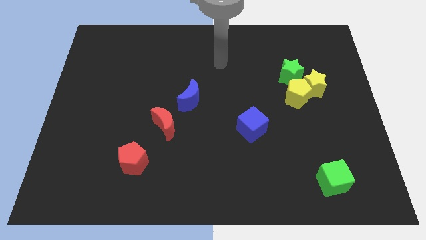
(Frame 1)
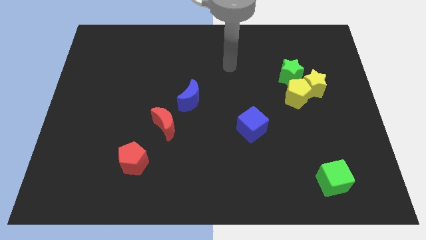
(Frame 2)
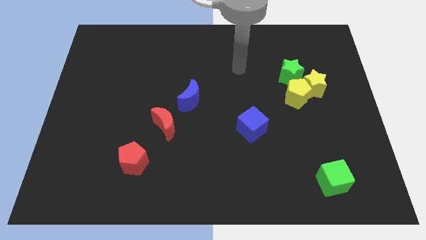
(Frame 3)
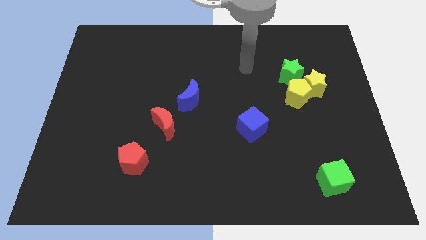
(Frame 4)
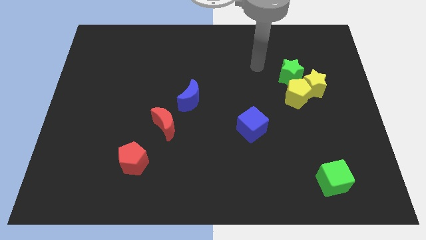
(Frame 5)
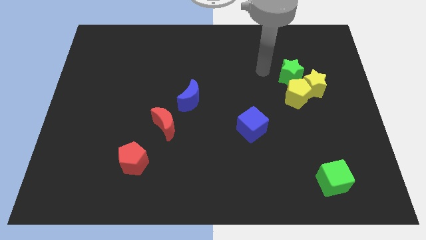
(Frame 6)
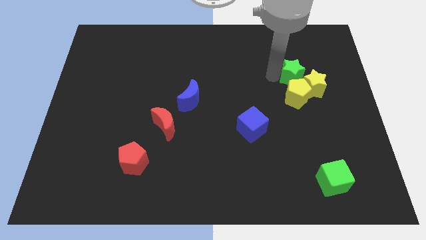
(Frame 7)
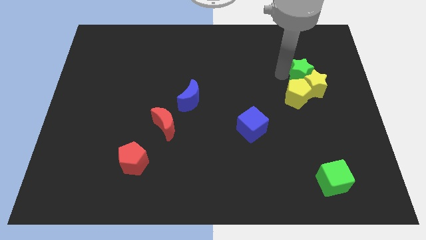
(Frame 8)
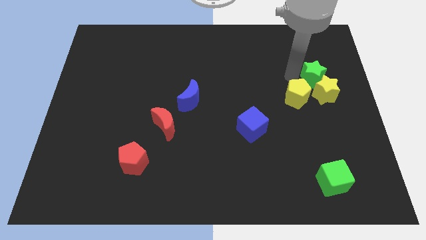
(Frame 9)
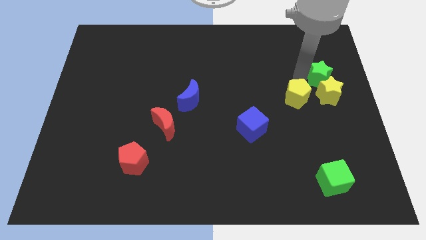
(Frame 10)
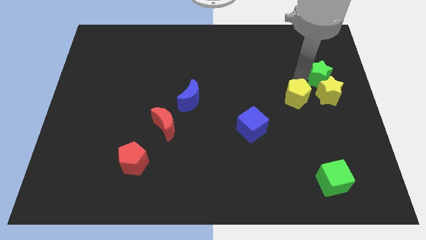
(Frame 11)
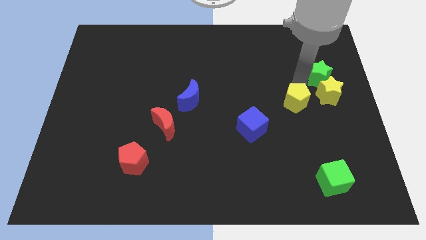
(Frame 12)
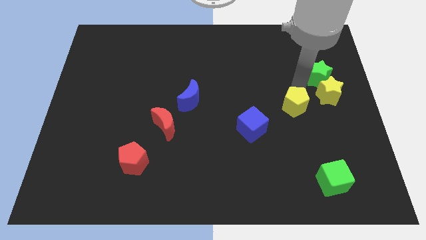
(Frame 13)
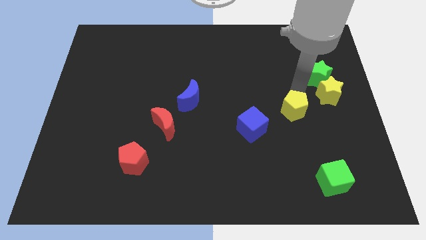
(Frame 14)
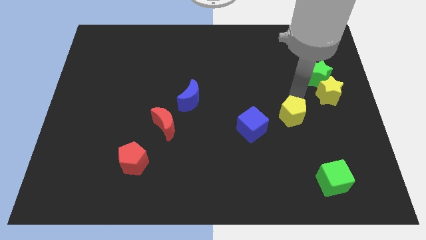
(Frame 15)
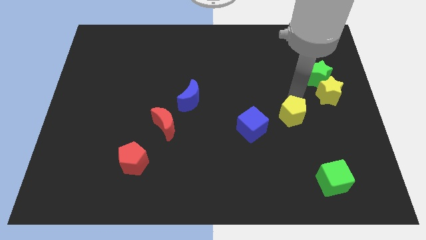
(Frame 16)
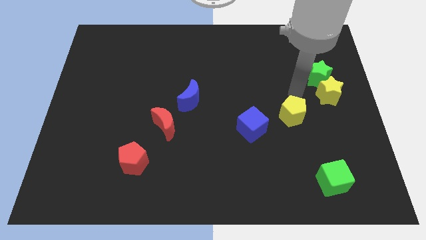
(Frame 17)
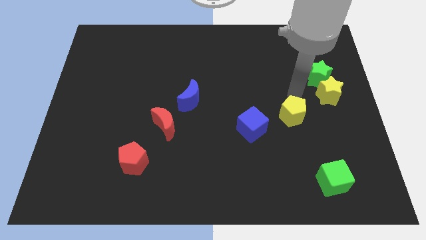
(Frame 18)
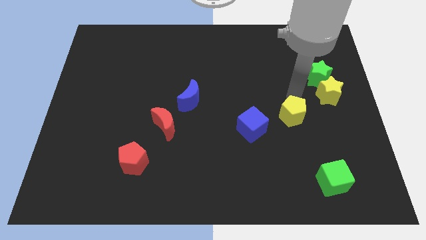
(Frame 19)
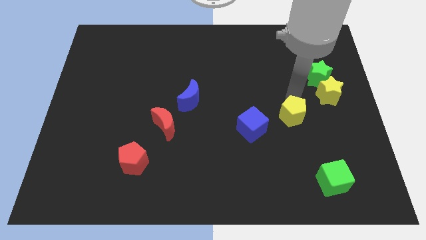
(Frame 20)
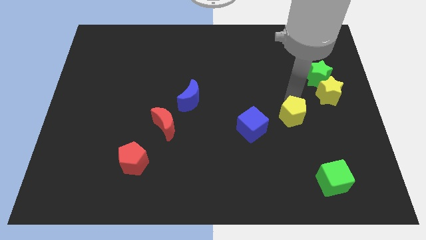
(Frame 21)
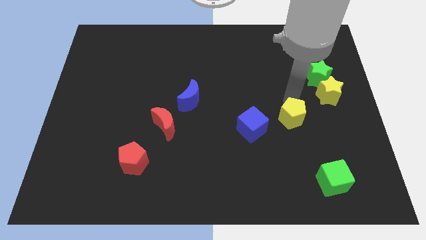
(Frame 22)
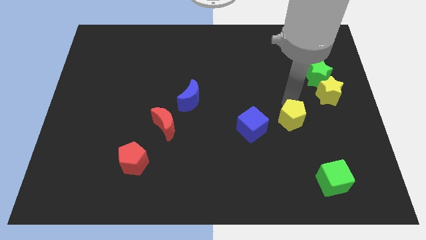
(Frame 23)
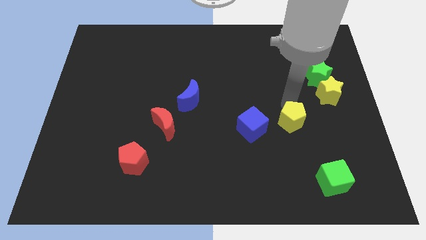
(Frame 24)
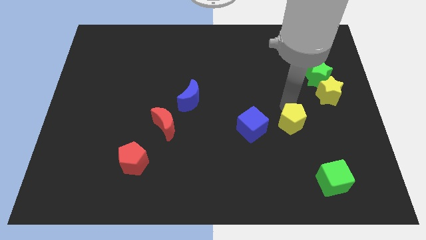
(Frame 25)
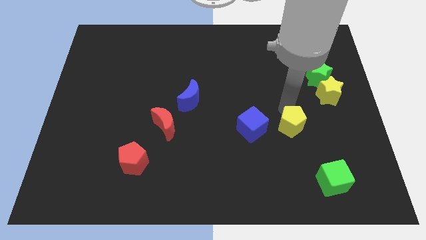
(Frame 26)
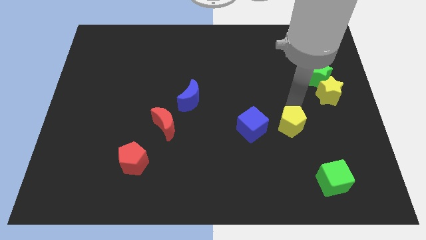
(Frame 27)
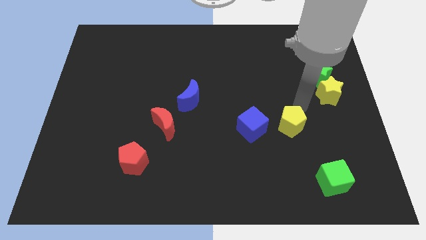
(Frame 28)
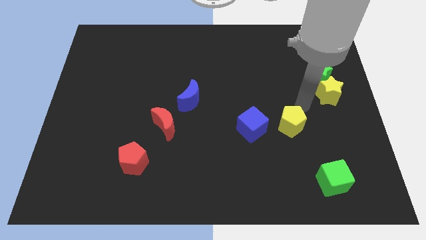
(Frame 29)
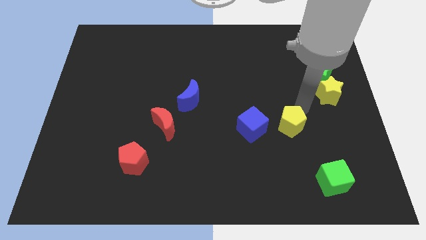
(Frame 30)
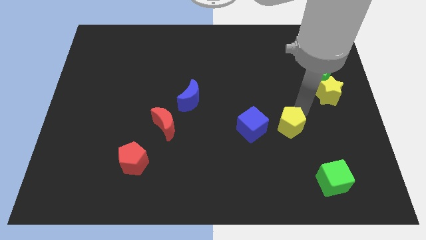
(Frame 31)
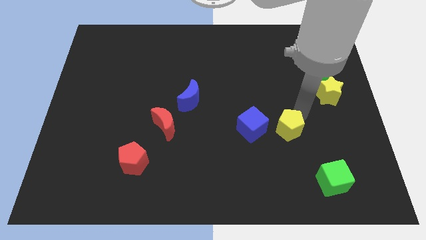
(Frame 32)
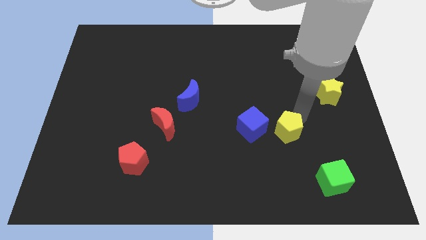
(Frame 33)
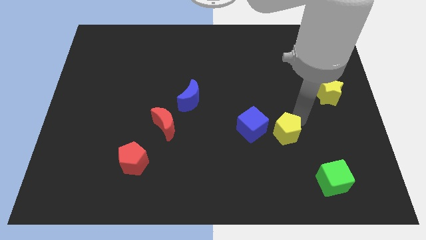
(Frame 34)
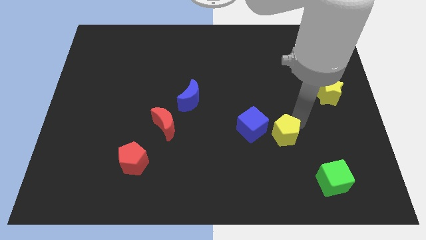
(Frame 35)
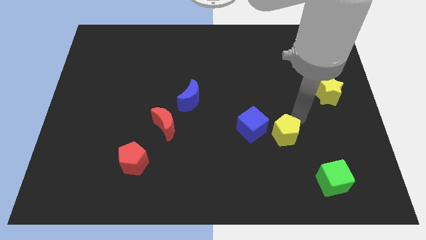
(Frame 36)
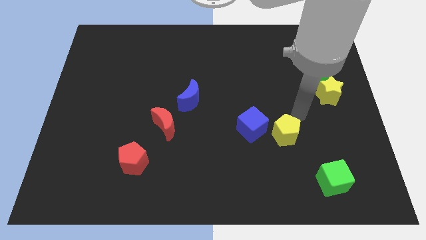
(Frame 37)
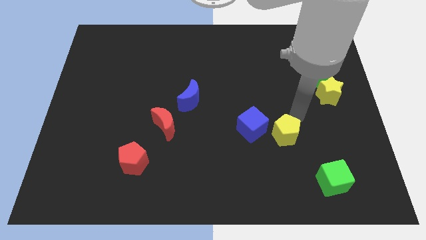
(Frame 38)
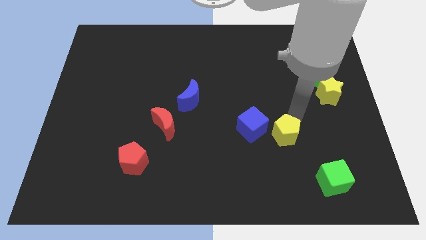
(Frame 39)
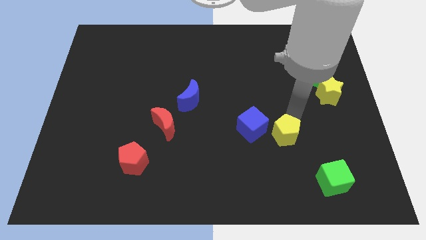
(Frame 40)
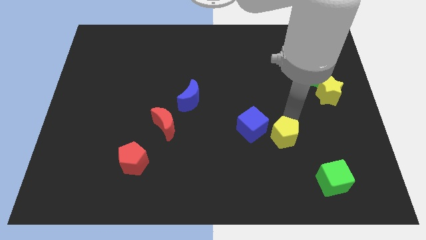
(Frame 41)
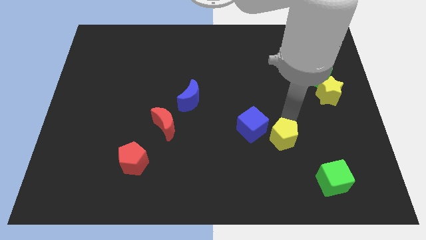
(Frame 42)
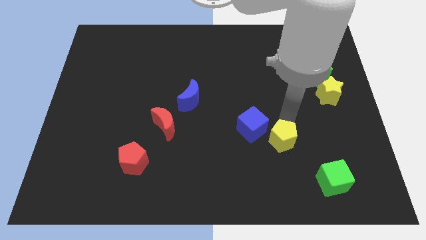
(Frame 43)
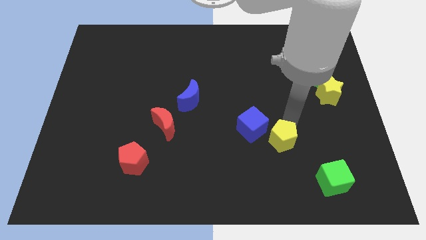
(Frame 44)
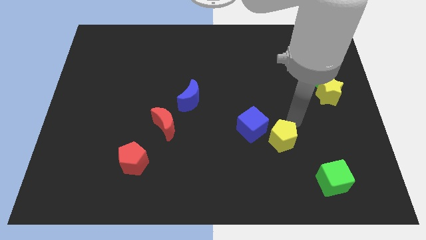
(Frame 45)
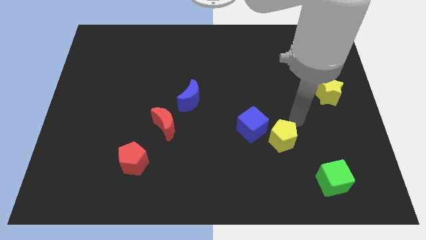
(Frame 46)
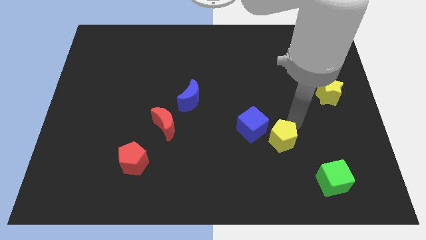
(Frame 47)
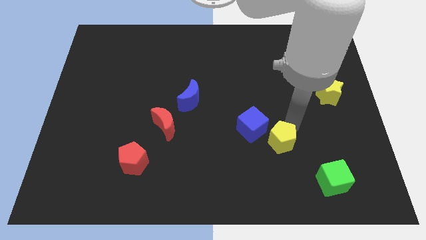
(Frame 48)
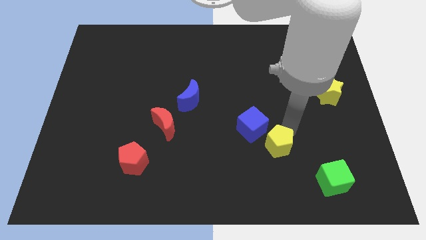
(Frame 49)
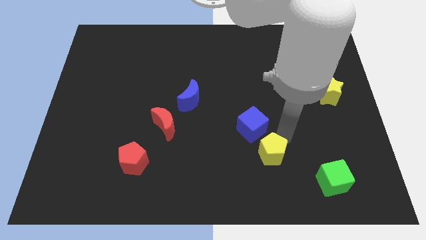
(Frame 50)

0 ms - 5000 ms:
put the yellow pentagon to the bottom of the blue cube

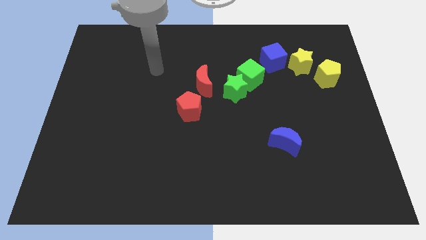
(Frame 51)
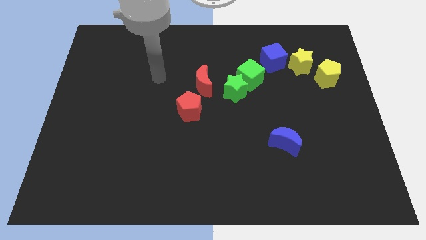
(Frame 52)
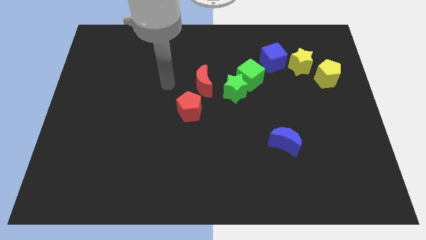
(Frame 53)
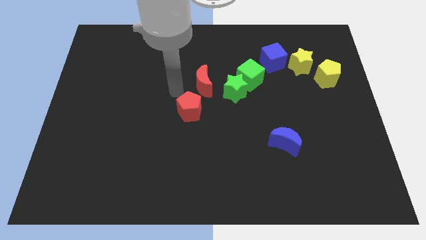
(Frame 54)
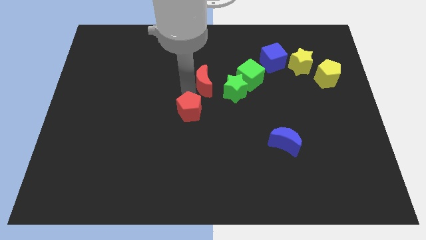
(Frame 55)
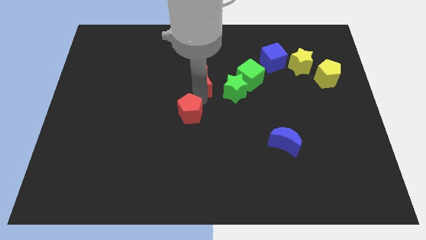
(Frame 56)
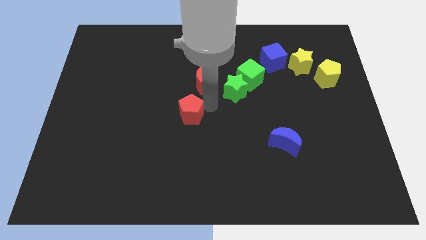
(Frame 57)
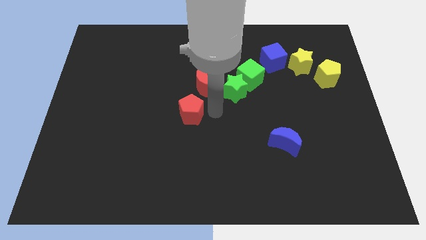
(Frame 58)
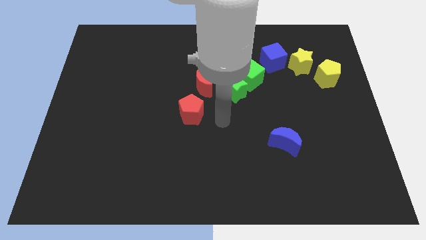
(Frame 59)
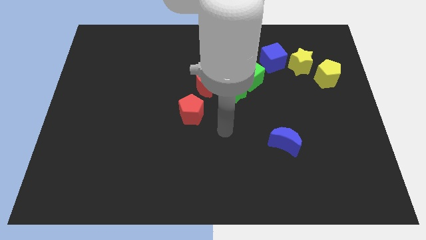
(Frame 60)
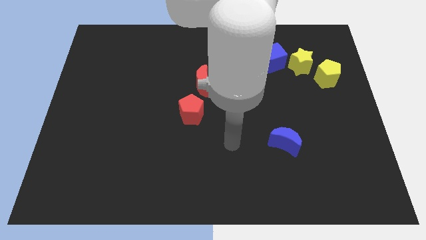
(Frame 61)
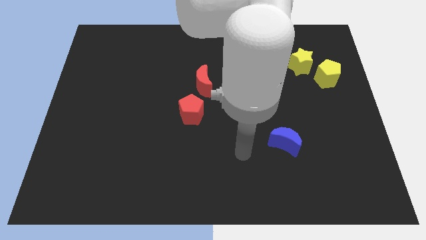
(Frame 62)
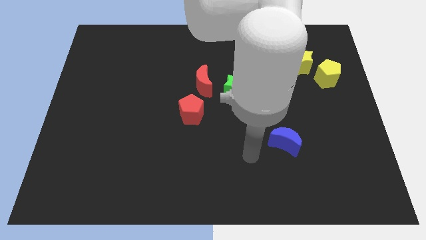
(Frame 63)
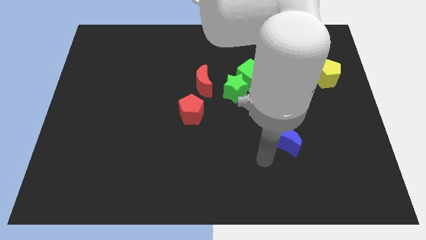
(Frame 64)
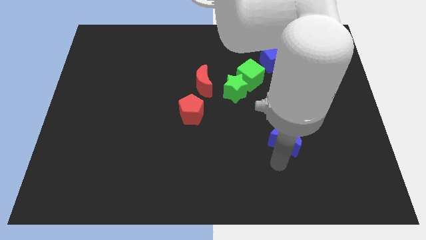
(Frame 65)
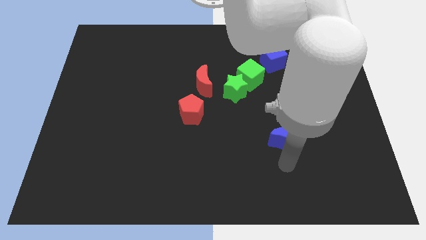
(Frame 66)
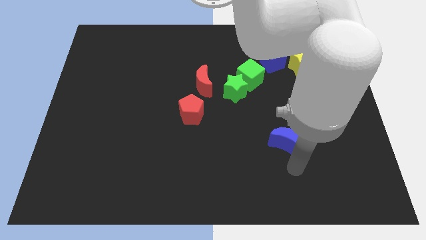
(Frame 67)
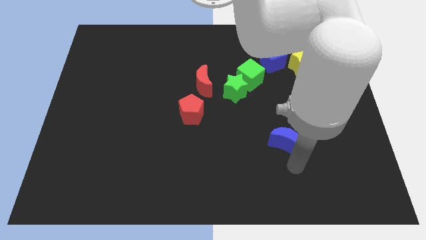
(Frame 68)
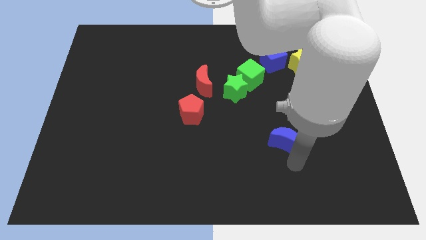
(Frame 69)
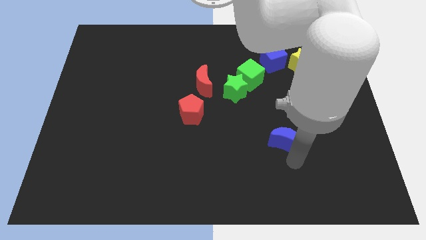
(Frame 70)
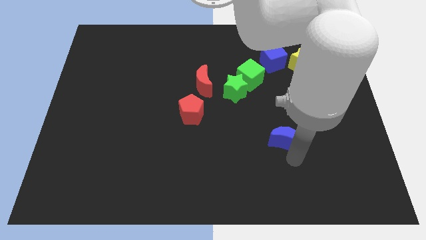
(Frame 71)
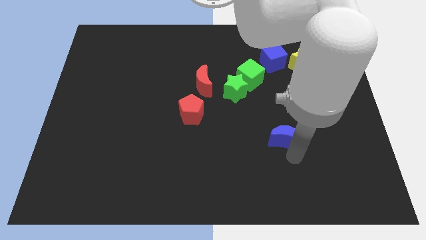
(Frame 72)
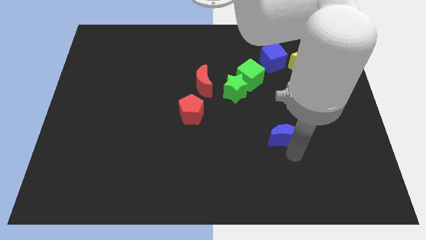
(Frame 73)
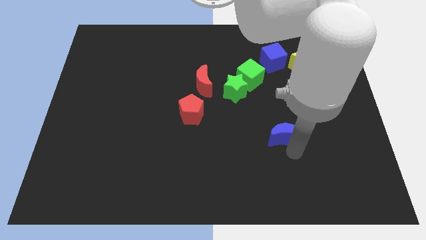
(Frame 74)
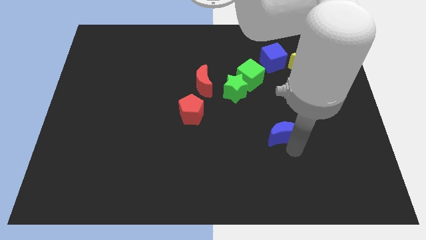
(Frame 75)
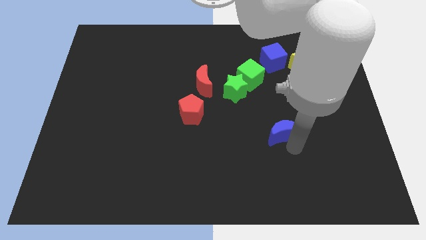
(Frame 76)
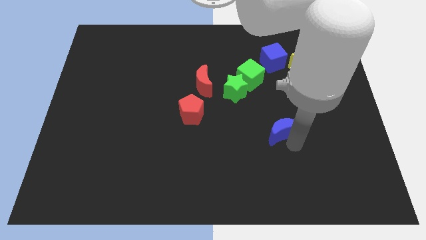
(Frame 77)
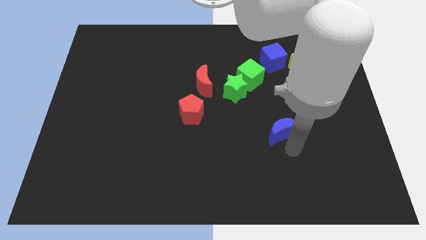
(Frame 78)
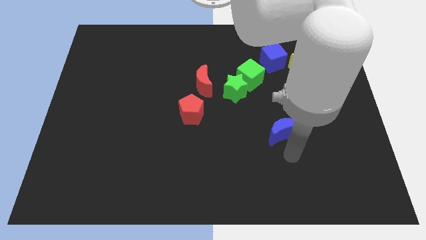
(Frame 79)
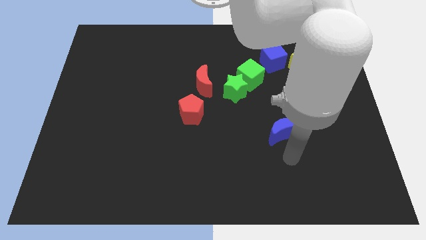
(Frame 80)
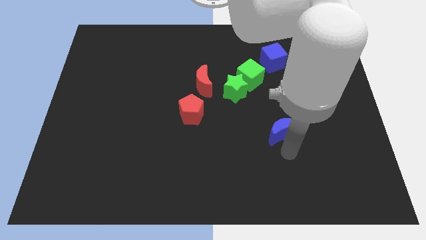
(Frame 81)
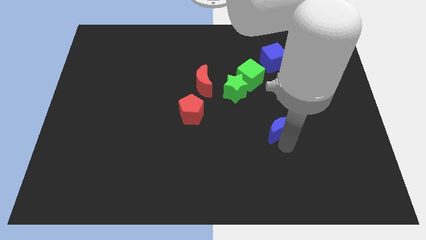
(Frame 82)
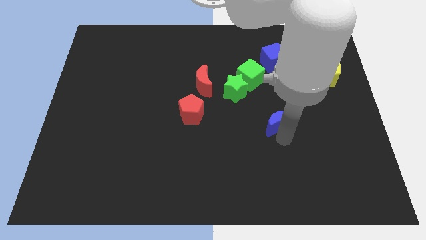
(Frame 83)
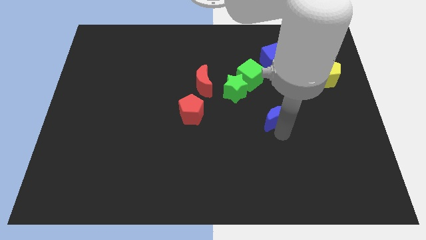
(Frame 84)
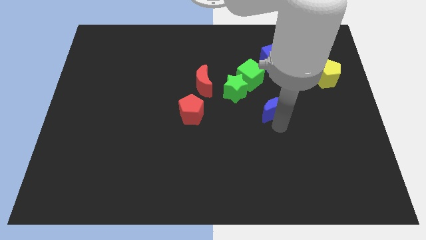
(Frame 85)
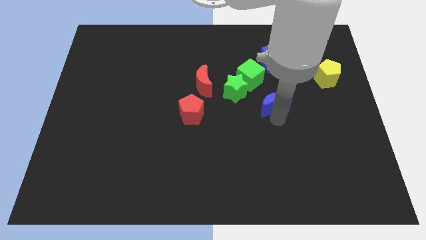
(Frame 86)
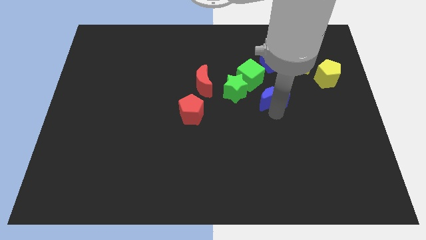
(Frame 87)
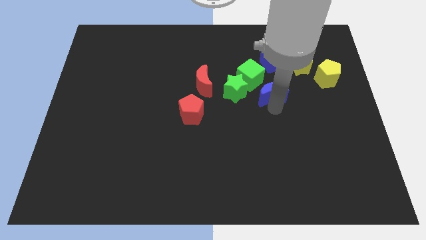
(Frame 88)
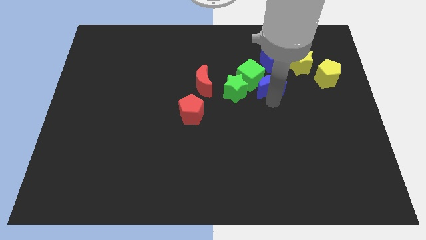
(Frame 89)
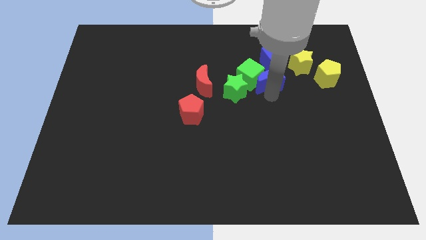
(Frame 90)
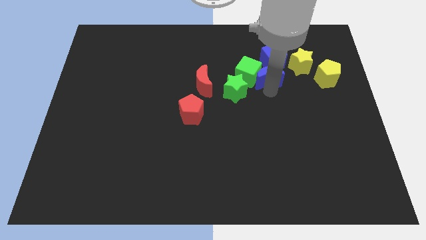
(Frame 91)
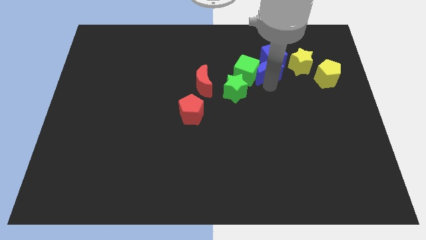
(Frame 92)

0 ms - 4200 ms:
put the blue moon to the left of the yellow star
